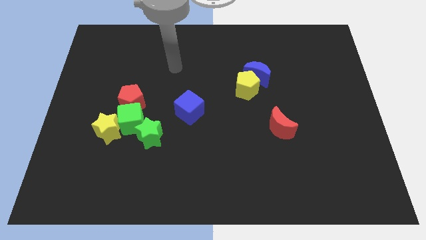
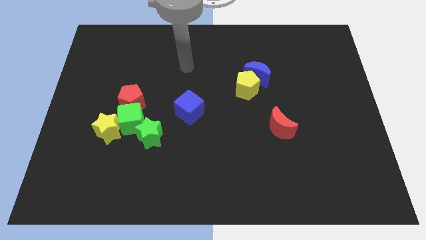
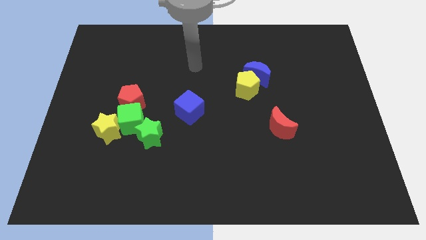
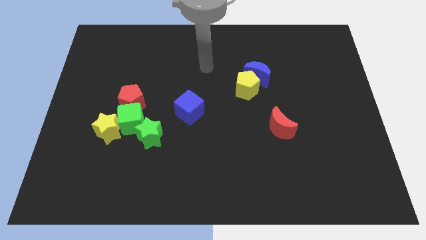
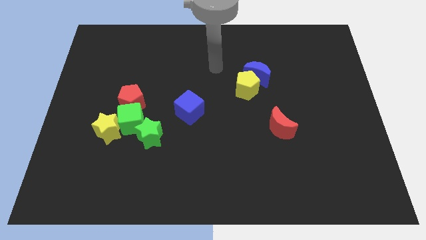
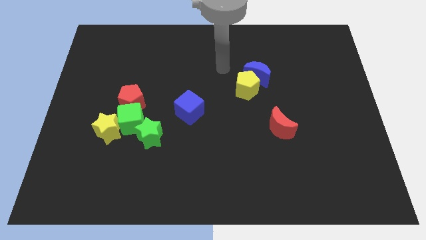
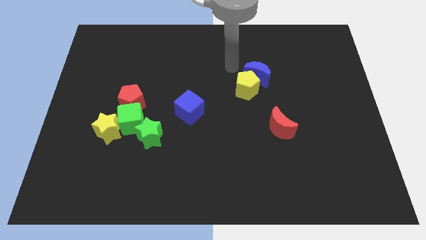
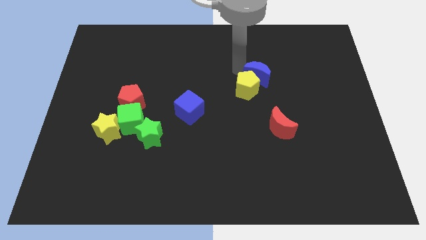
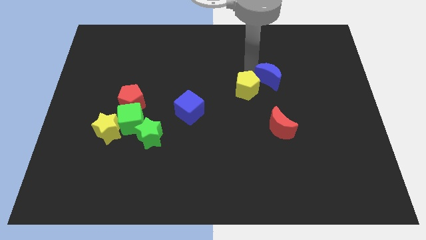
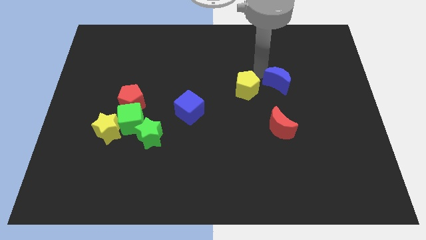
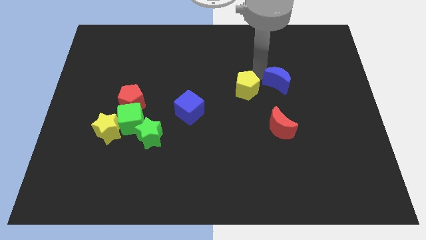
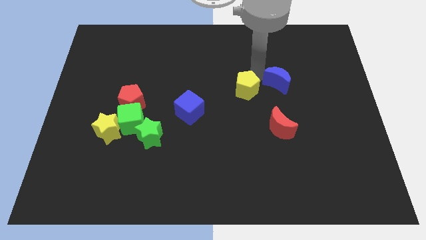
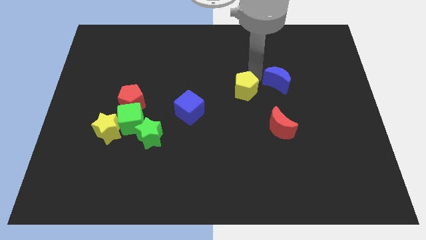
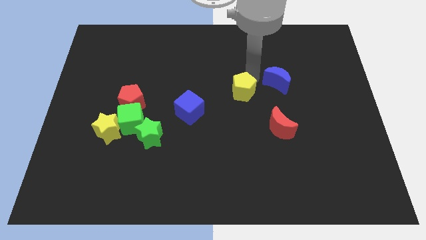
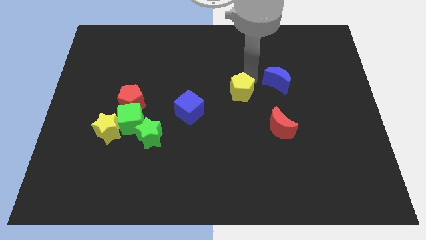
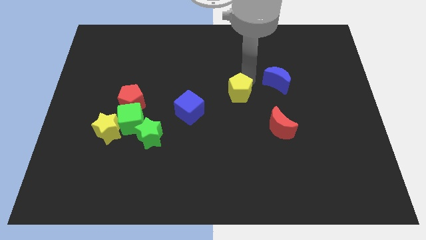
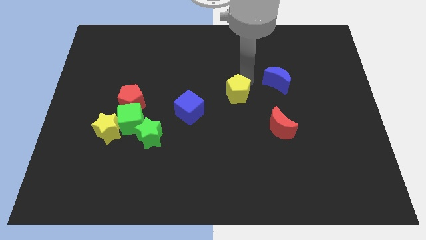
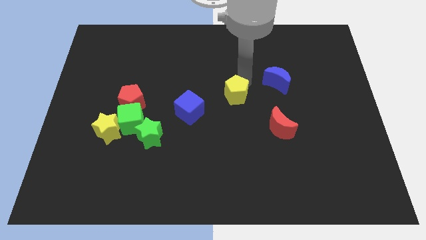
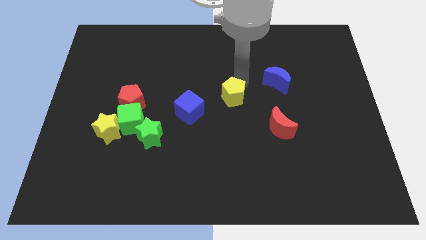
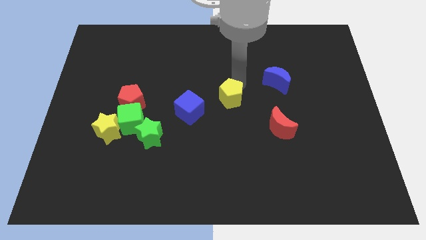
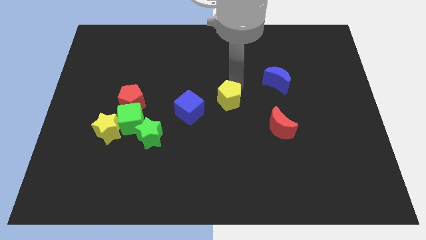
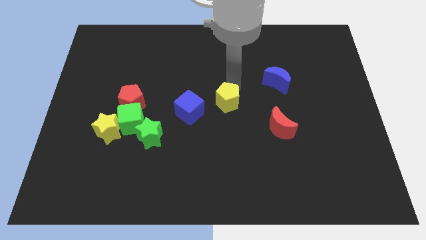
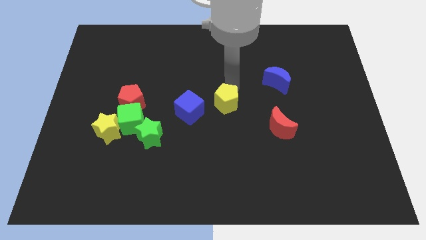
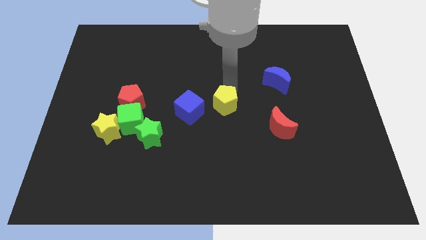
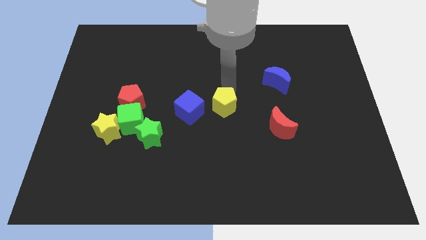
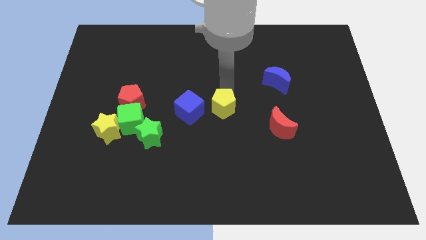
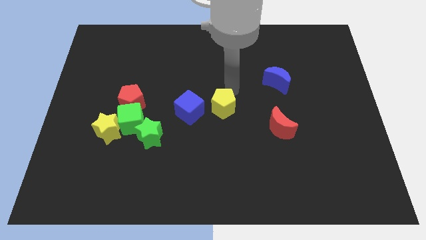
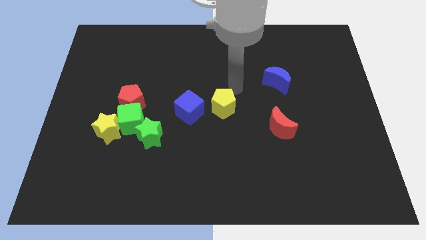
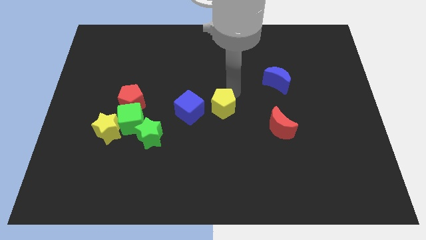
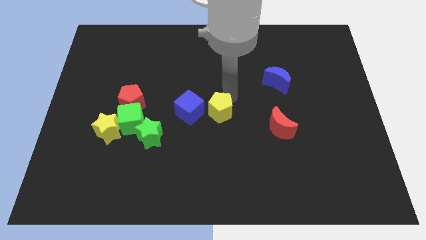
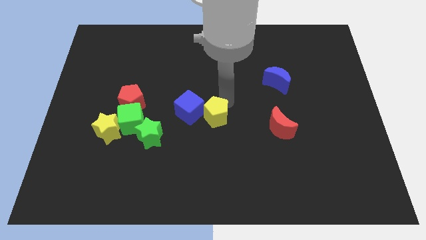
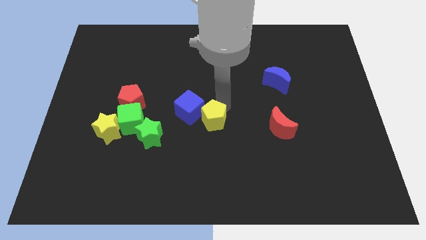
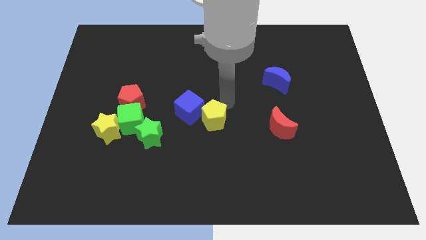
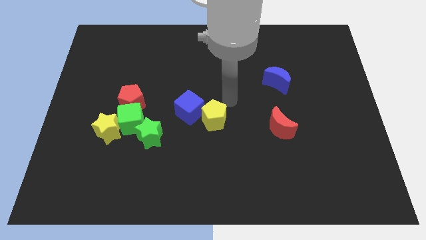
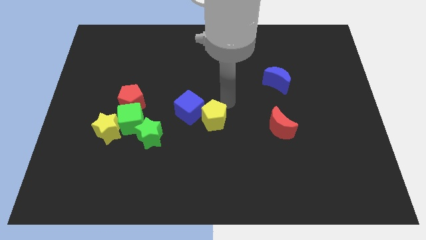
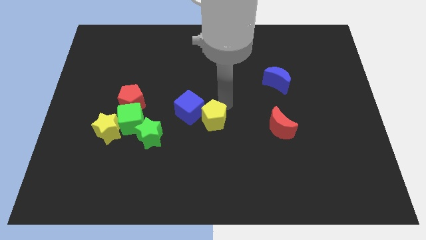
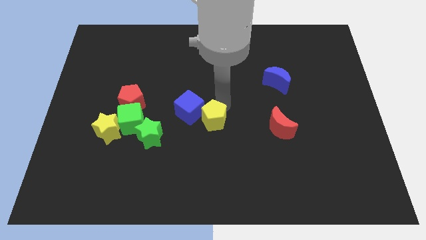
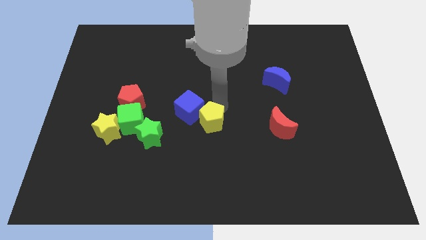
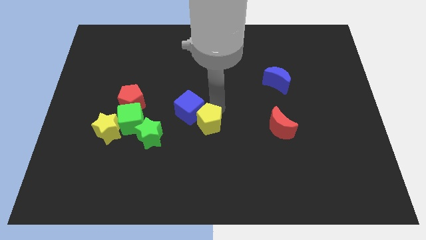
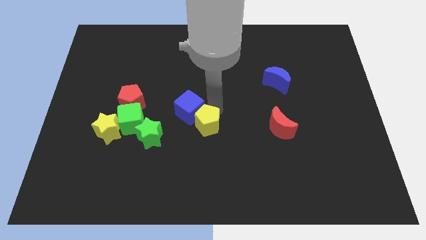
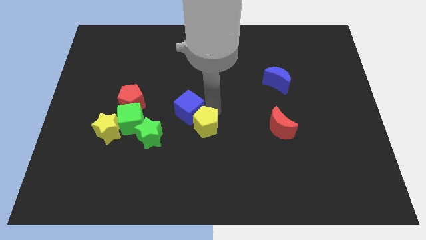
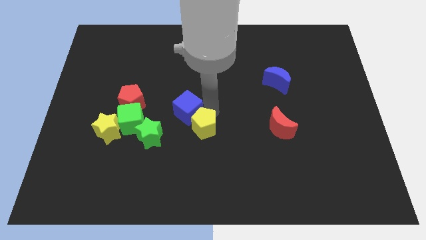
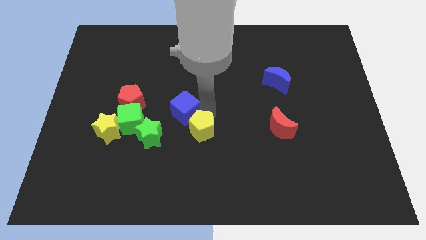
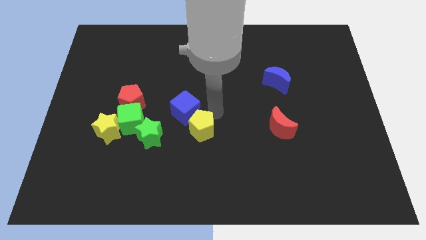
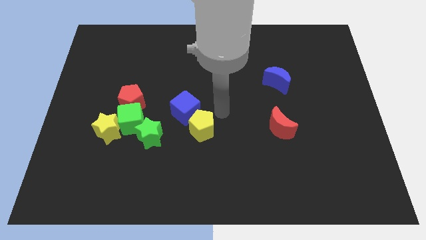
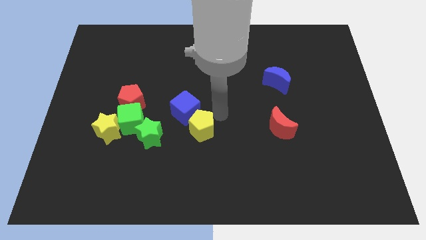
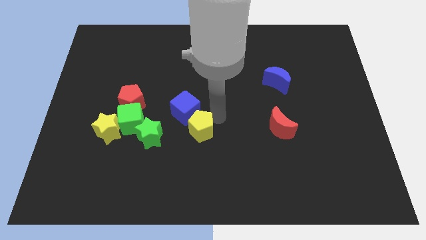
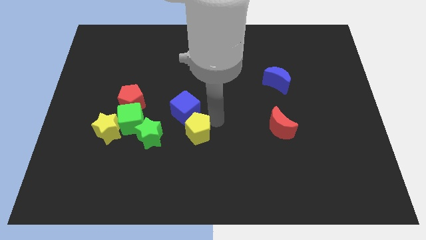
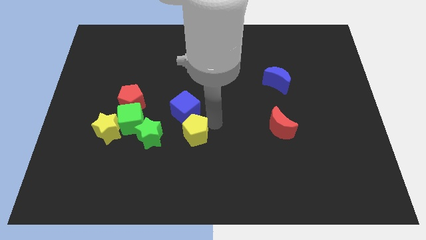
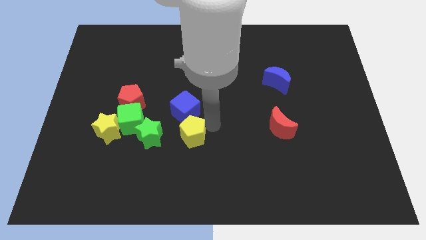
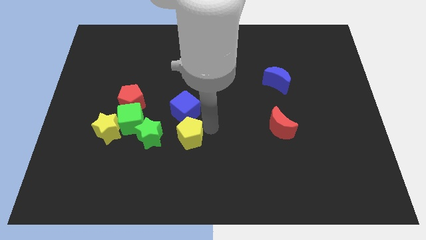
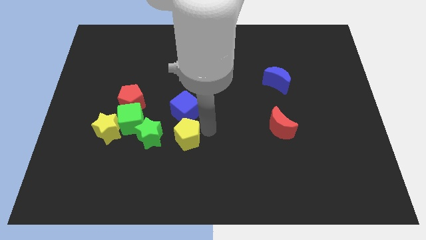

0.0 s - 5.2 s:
slide the yellow pentagon downwards and to the left diagonally

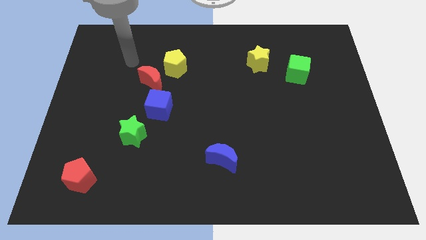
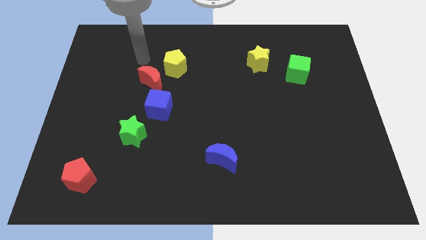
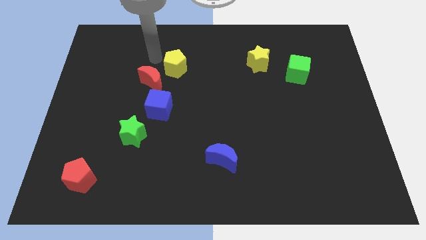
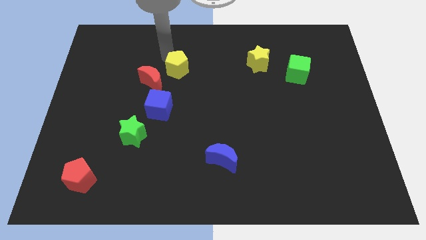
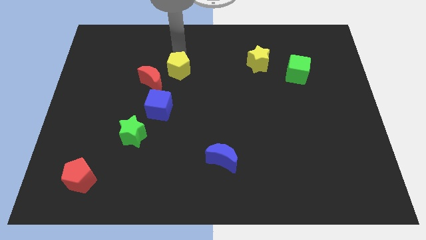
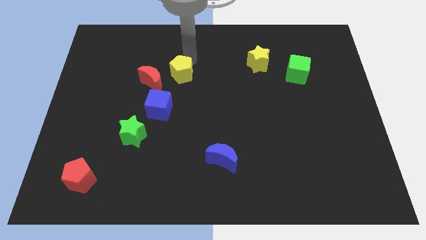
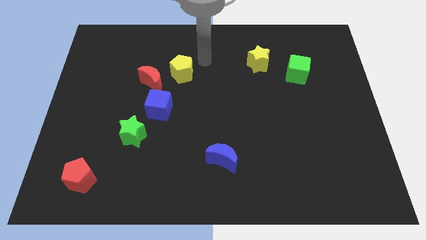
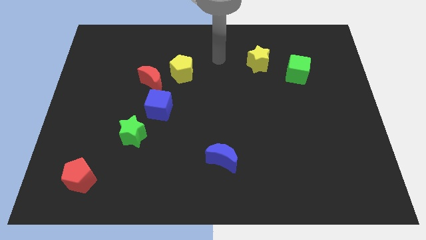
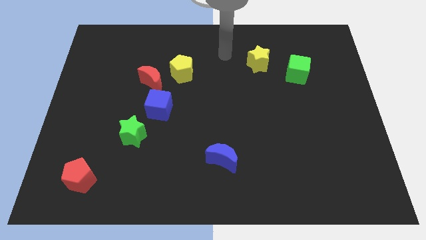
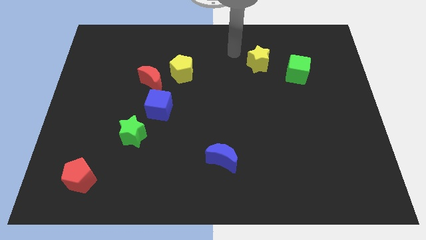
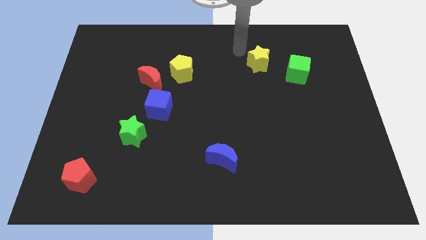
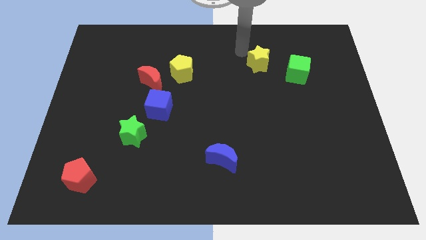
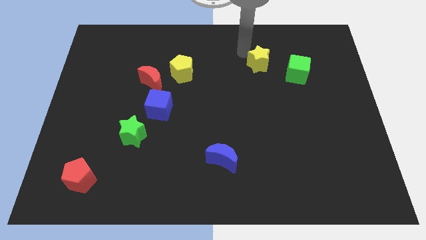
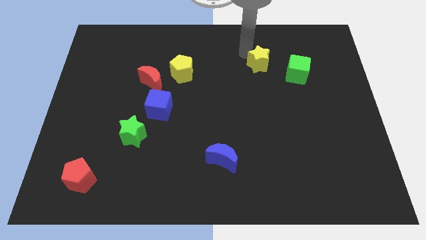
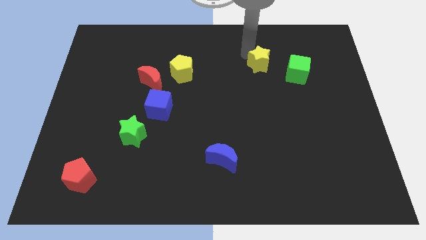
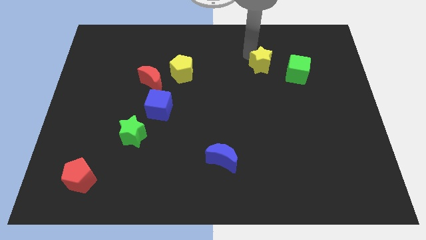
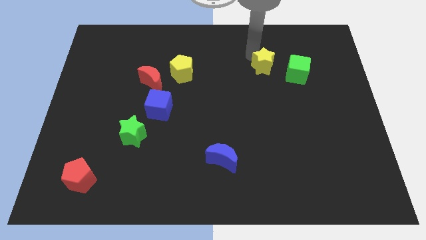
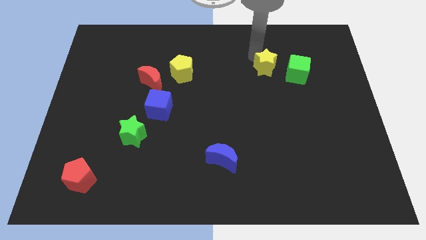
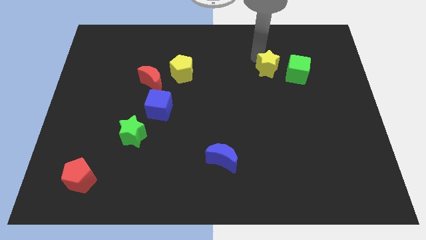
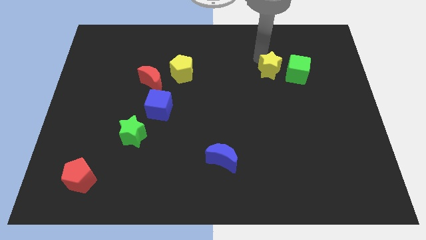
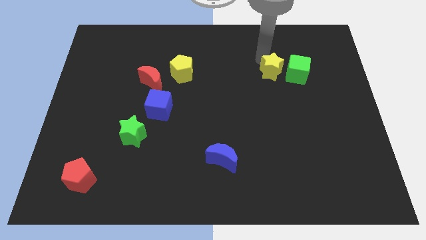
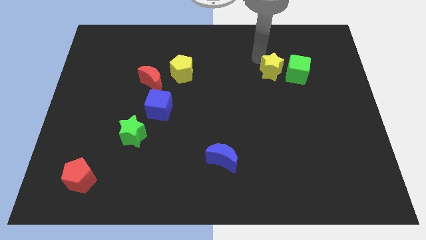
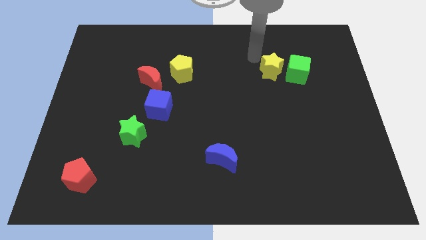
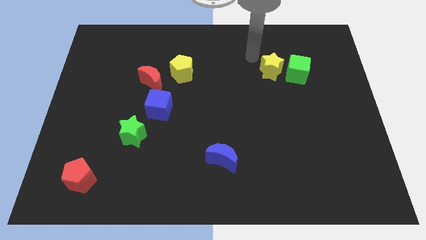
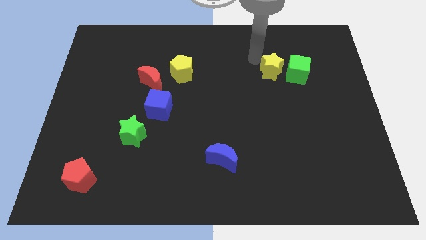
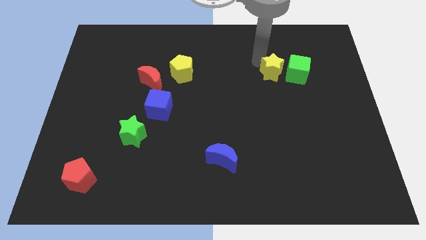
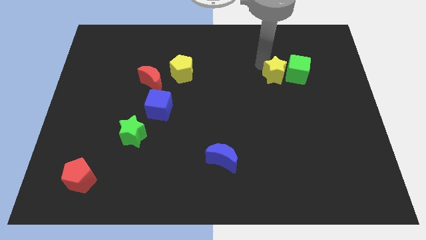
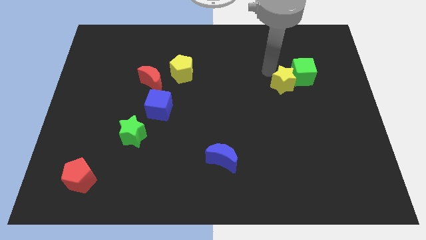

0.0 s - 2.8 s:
slide the yellow star downwards and then right a little

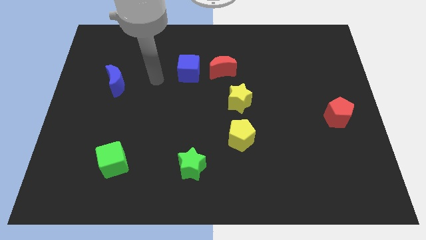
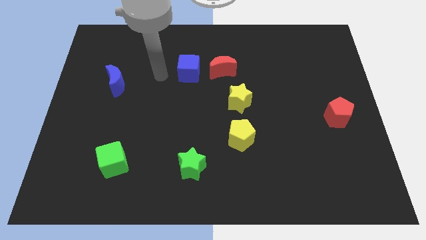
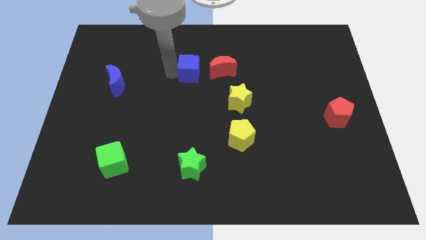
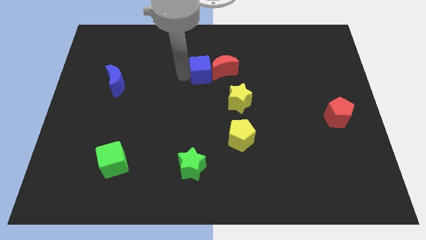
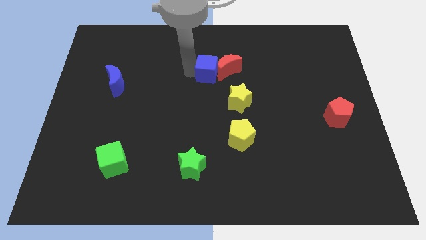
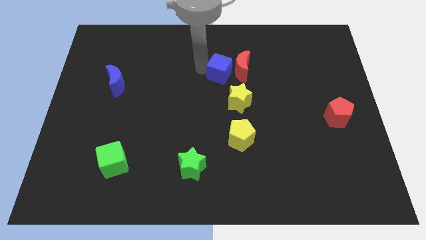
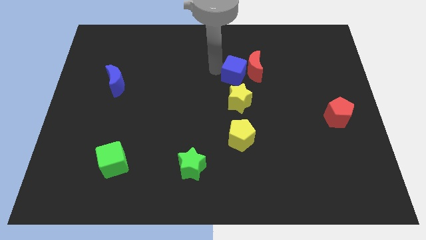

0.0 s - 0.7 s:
move the red moon a little bit to the right
